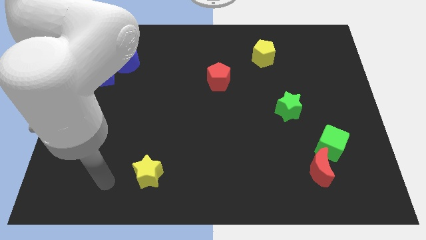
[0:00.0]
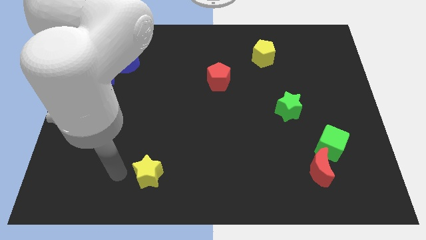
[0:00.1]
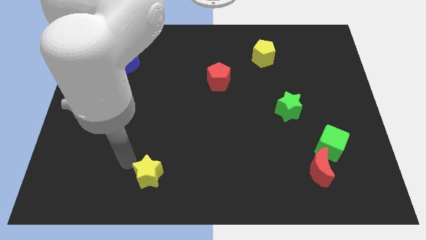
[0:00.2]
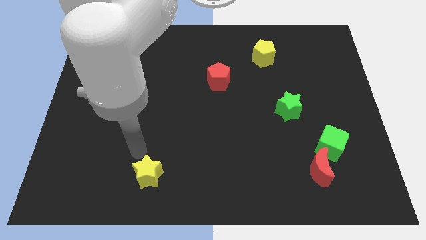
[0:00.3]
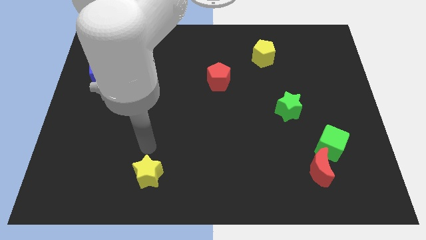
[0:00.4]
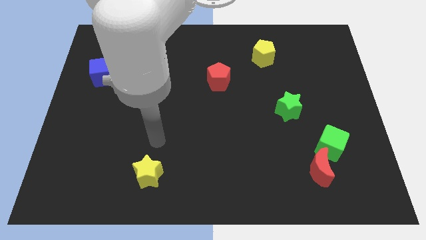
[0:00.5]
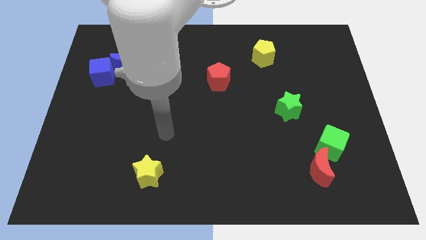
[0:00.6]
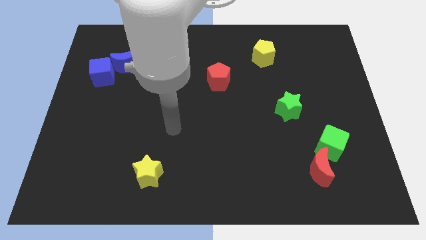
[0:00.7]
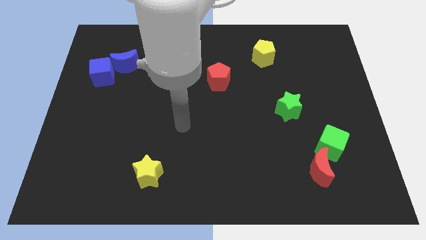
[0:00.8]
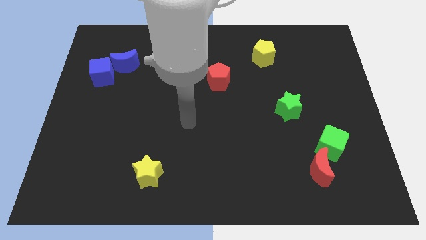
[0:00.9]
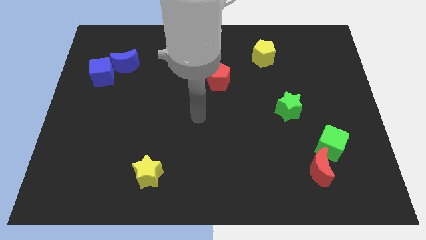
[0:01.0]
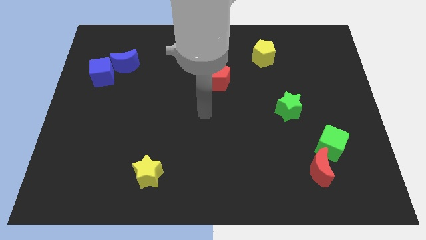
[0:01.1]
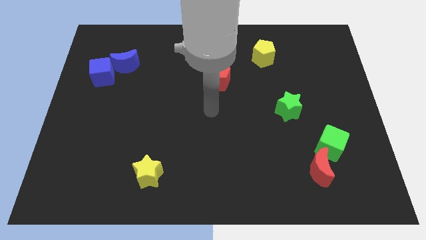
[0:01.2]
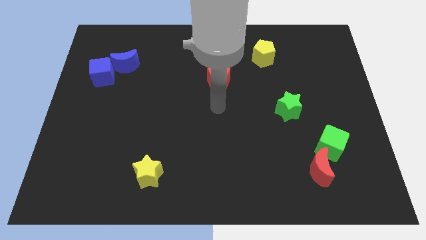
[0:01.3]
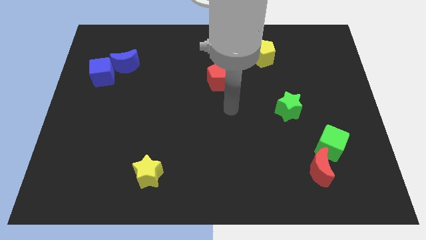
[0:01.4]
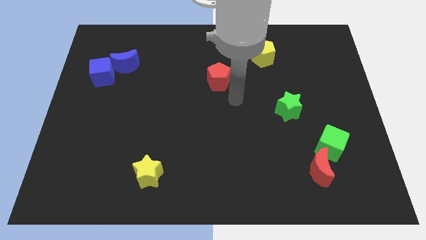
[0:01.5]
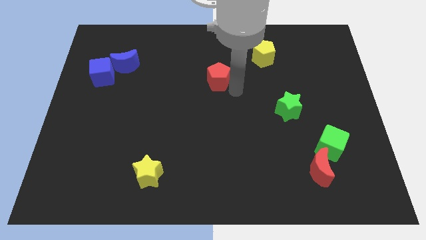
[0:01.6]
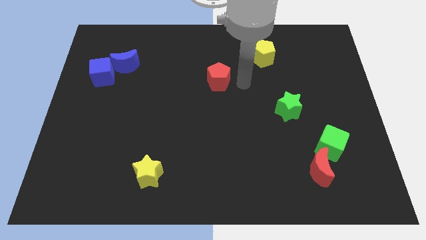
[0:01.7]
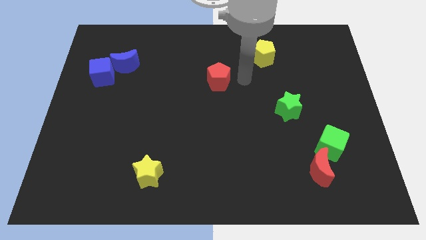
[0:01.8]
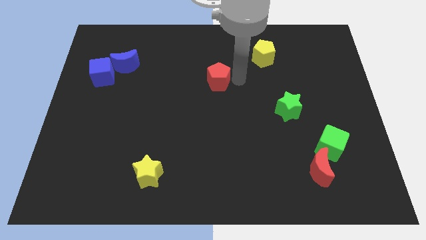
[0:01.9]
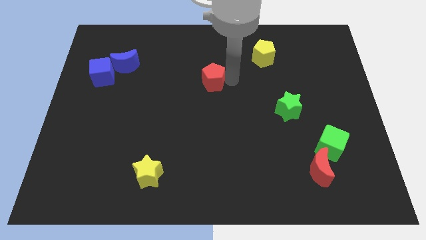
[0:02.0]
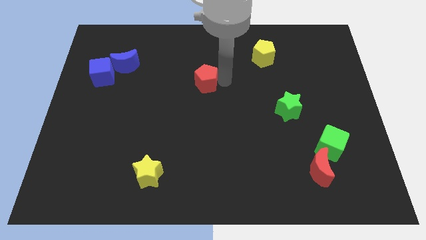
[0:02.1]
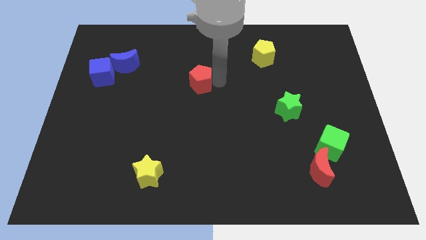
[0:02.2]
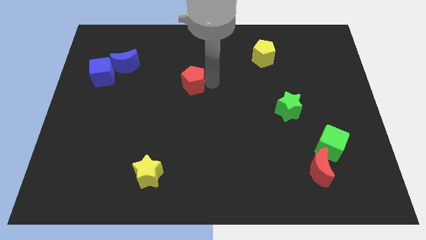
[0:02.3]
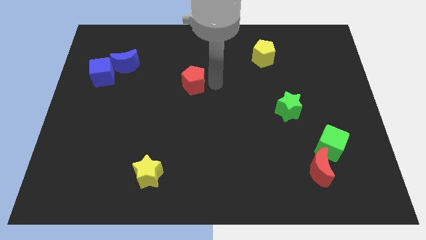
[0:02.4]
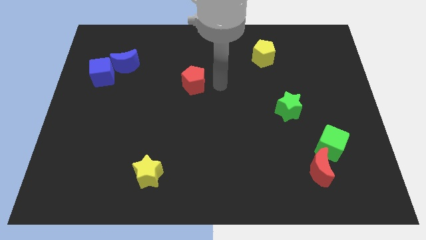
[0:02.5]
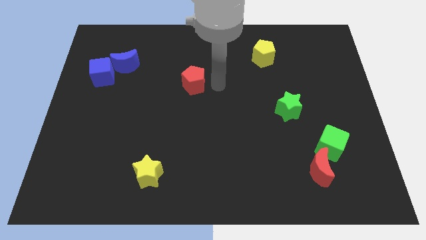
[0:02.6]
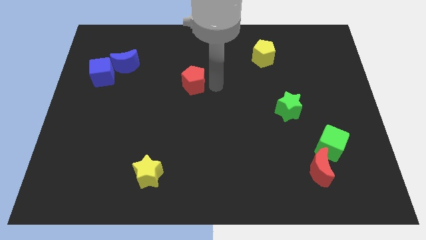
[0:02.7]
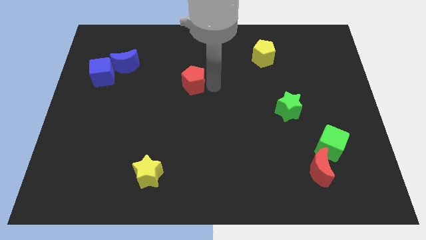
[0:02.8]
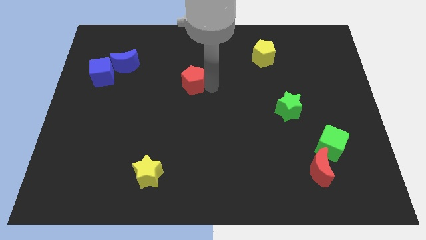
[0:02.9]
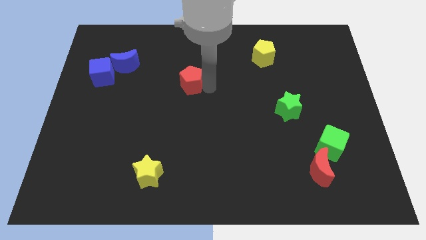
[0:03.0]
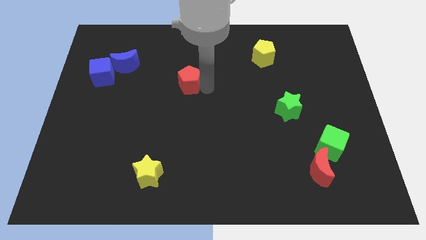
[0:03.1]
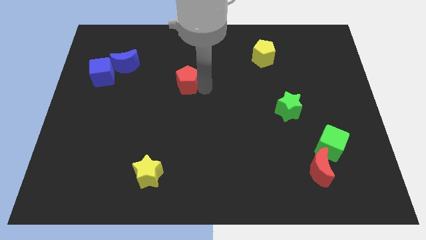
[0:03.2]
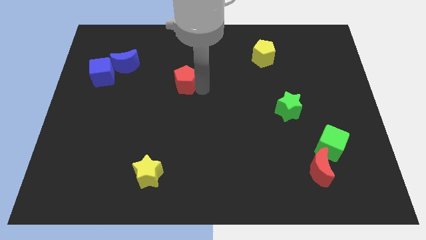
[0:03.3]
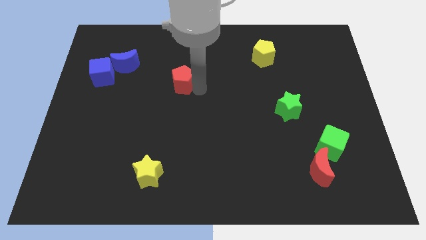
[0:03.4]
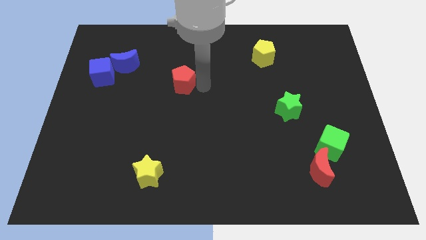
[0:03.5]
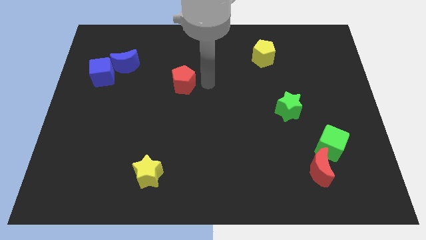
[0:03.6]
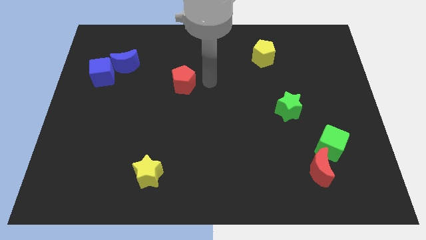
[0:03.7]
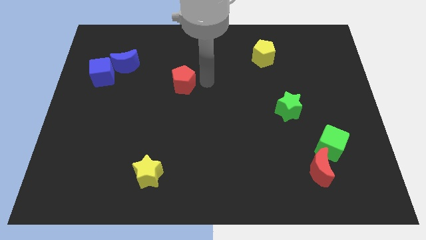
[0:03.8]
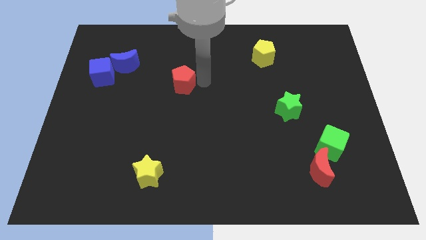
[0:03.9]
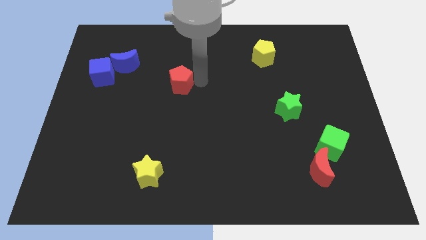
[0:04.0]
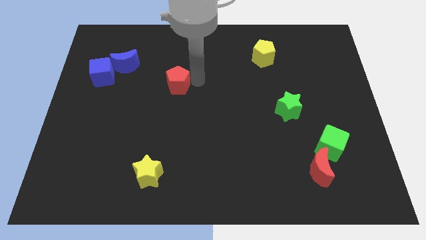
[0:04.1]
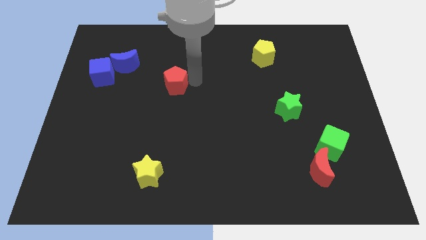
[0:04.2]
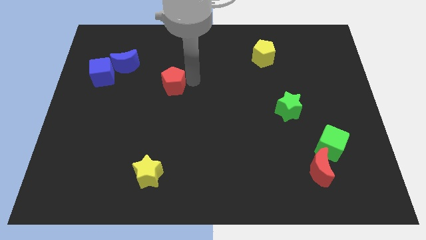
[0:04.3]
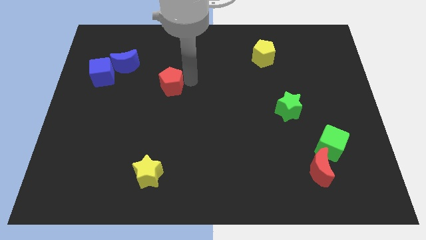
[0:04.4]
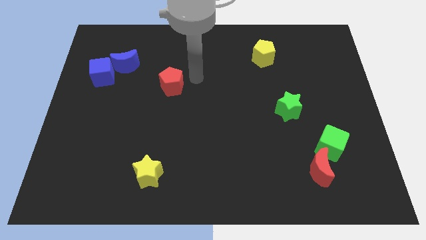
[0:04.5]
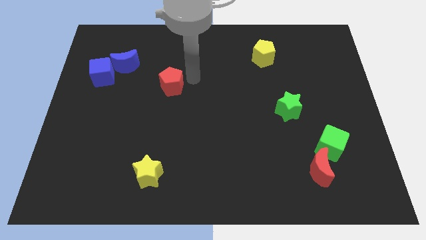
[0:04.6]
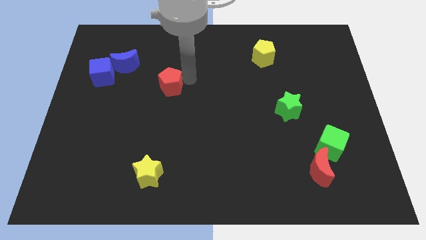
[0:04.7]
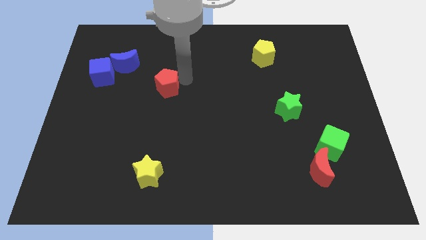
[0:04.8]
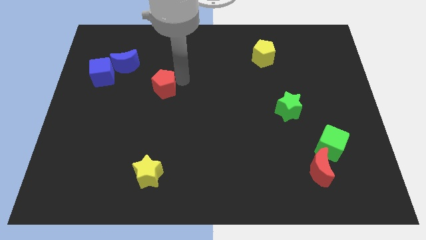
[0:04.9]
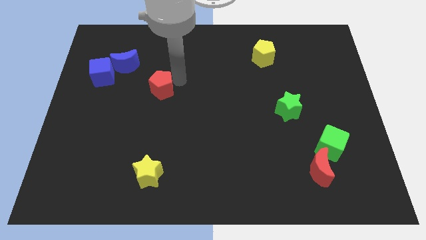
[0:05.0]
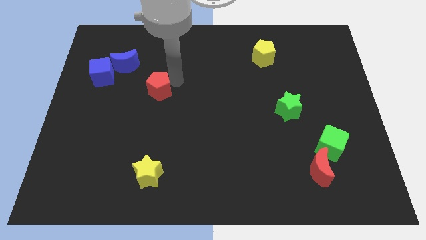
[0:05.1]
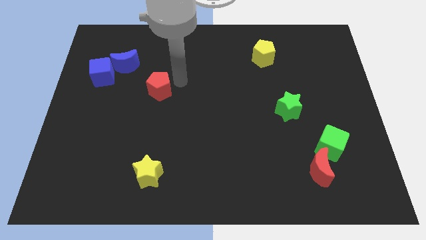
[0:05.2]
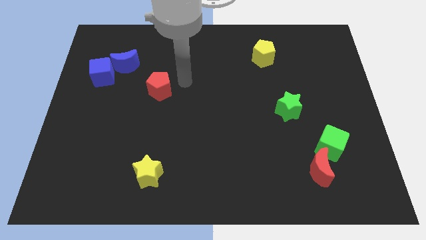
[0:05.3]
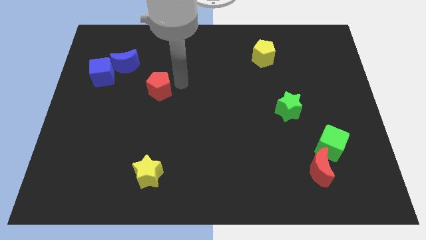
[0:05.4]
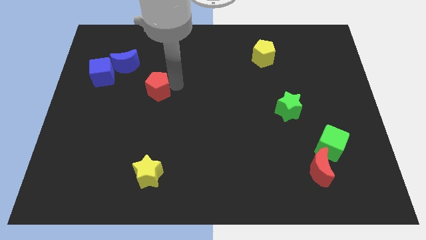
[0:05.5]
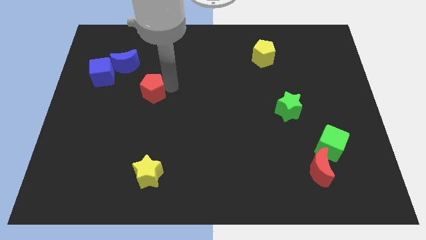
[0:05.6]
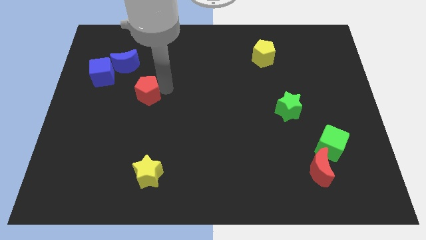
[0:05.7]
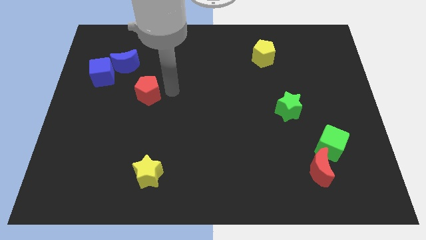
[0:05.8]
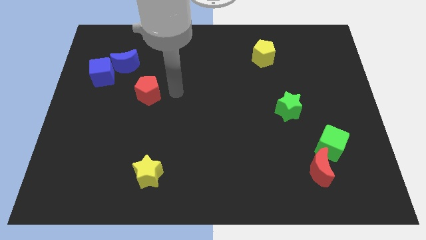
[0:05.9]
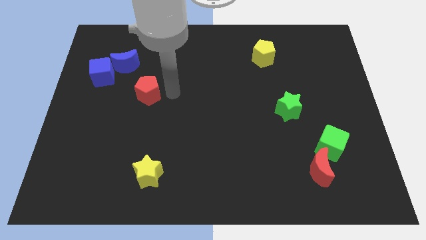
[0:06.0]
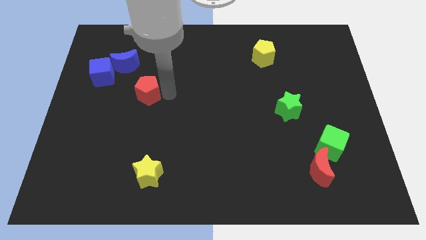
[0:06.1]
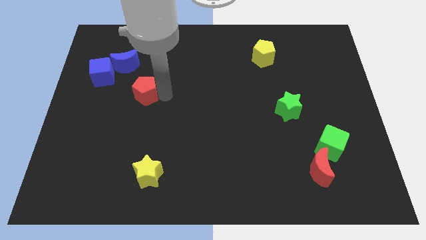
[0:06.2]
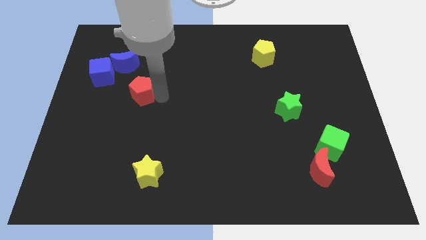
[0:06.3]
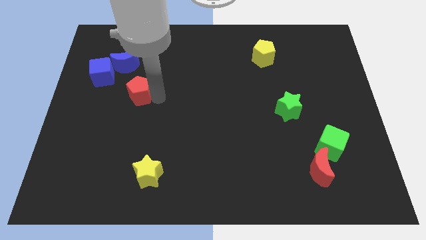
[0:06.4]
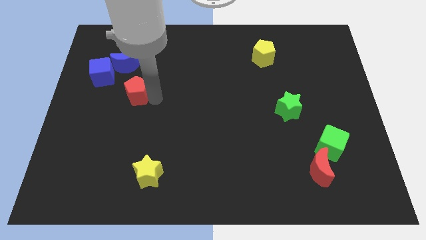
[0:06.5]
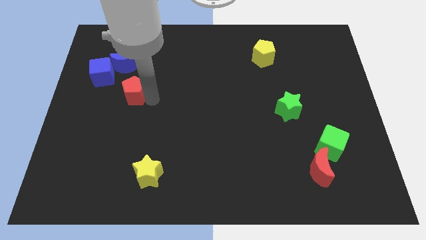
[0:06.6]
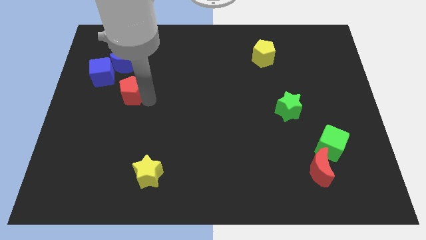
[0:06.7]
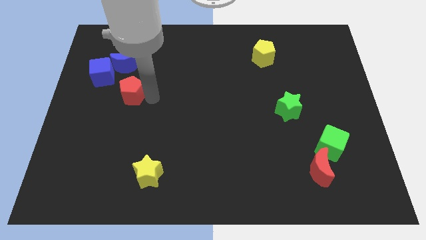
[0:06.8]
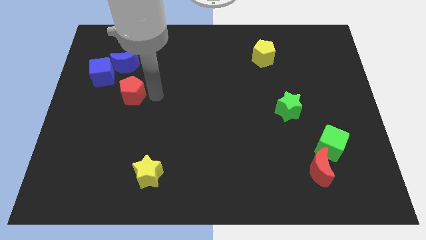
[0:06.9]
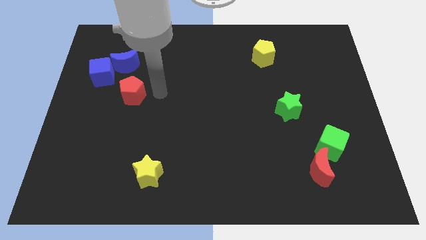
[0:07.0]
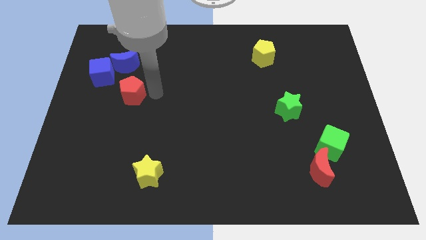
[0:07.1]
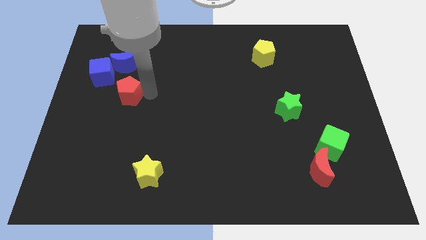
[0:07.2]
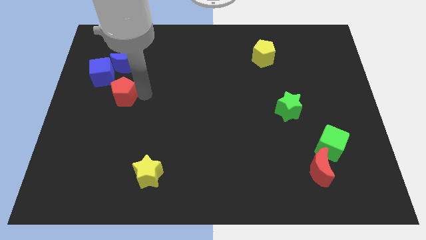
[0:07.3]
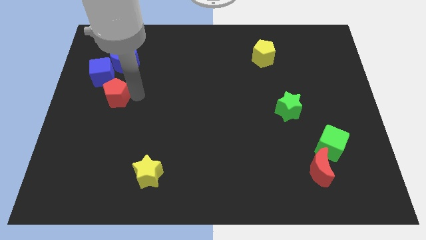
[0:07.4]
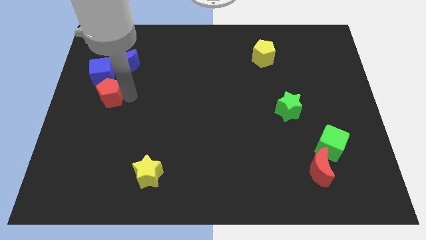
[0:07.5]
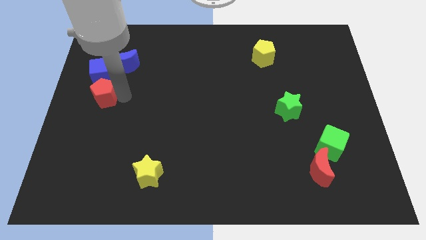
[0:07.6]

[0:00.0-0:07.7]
move the red pentagon to the left side
